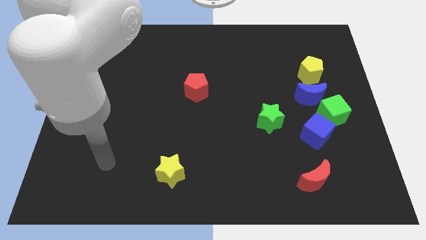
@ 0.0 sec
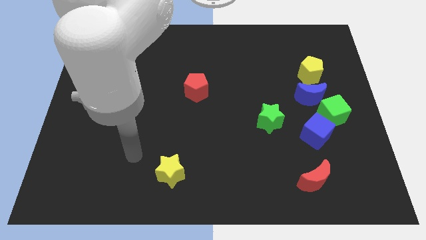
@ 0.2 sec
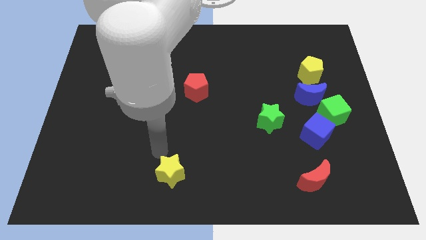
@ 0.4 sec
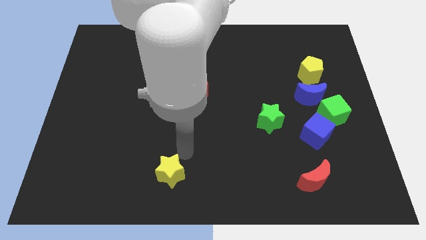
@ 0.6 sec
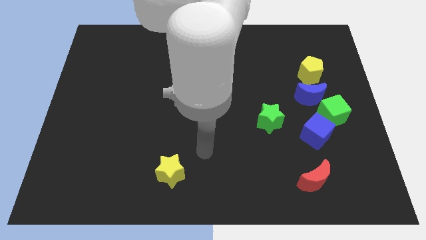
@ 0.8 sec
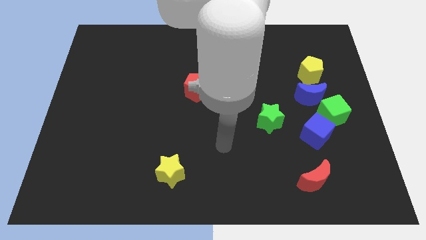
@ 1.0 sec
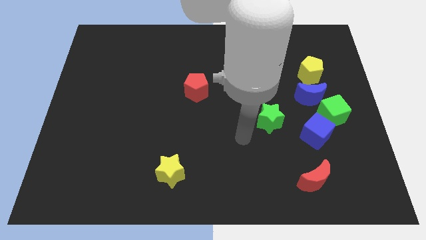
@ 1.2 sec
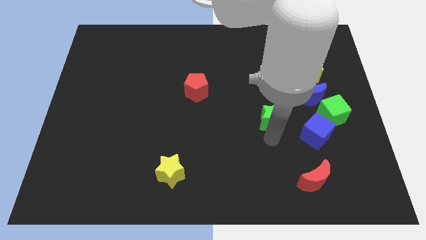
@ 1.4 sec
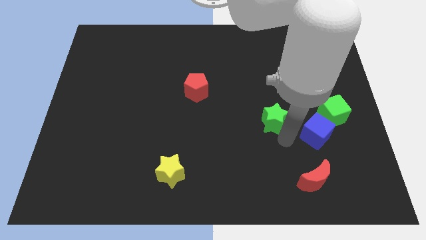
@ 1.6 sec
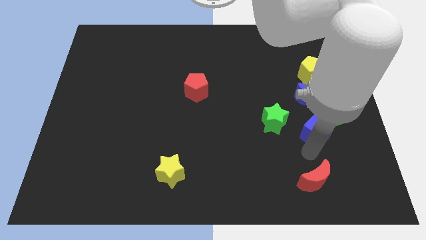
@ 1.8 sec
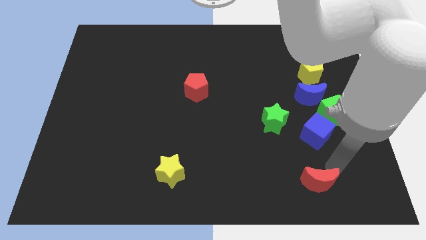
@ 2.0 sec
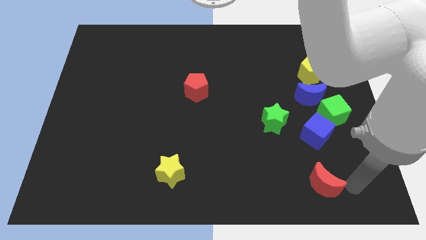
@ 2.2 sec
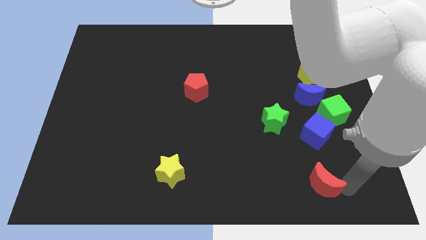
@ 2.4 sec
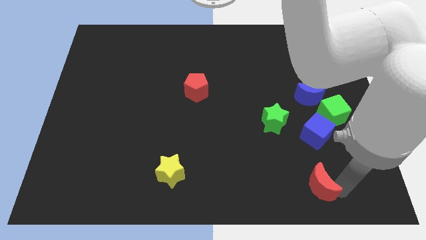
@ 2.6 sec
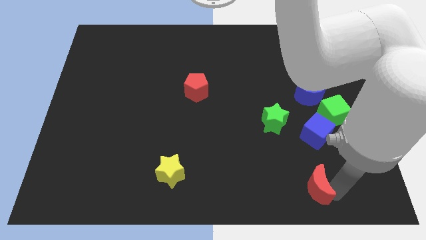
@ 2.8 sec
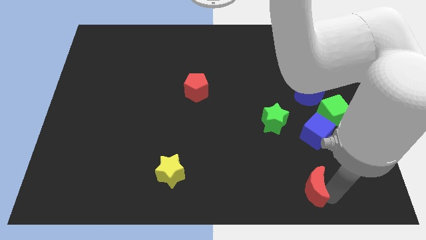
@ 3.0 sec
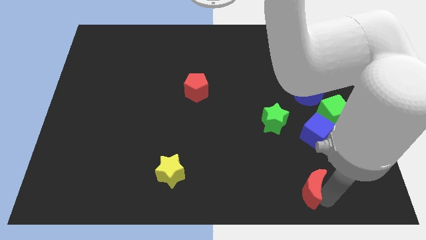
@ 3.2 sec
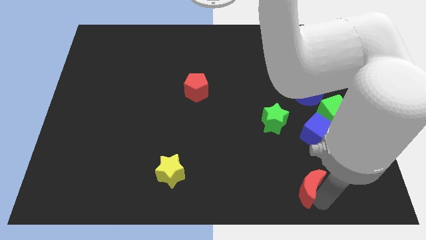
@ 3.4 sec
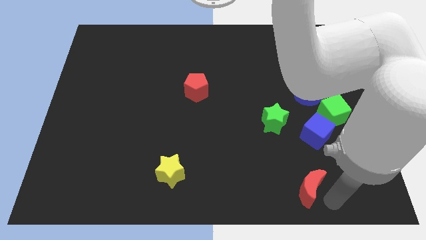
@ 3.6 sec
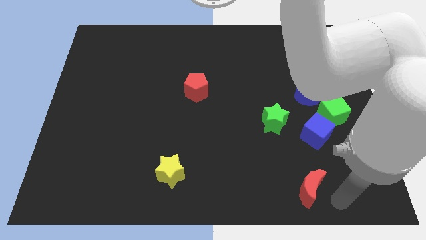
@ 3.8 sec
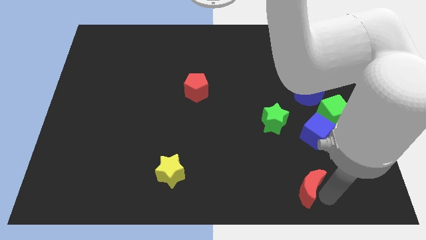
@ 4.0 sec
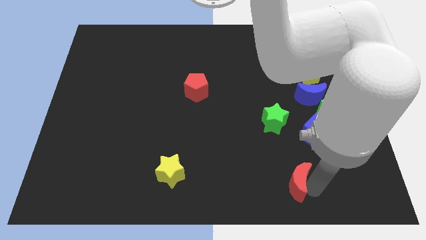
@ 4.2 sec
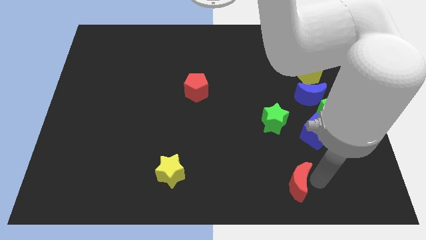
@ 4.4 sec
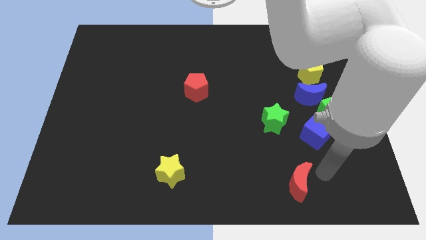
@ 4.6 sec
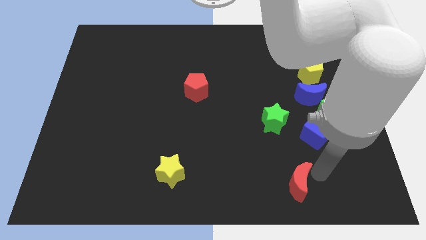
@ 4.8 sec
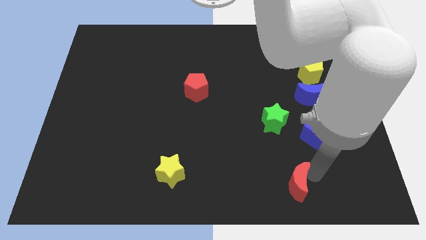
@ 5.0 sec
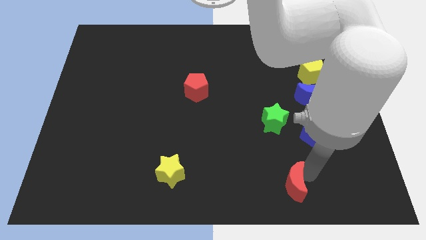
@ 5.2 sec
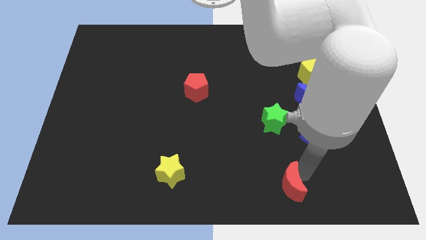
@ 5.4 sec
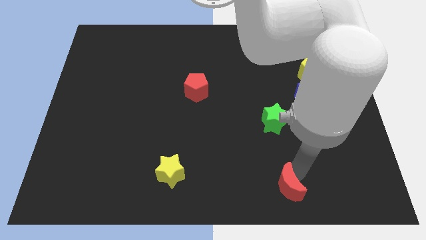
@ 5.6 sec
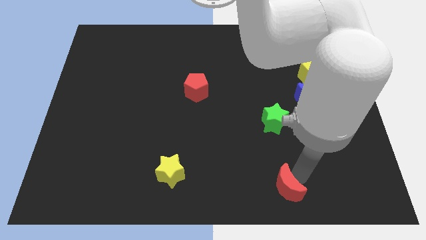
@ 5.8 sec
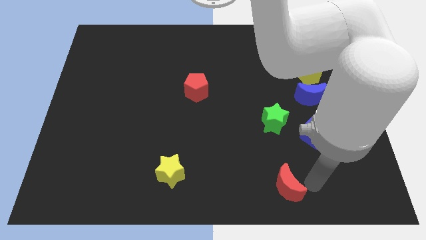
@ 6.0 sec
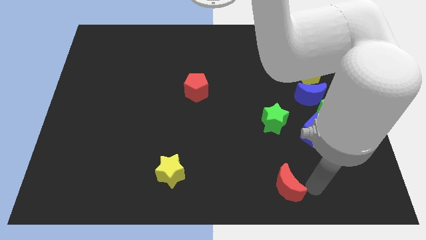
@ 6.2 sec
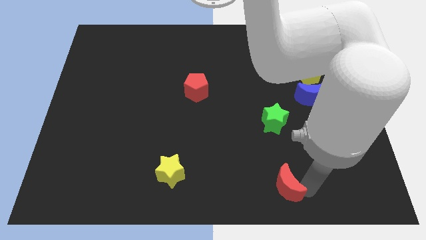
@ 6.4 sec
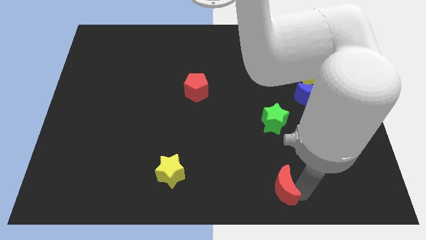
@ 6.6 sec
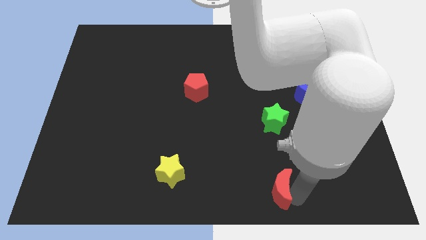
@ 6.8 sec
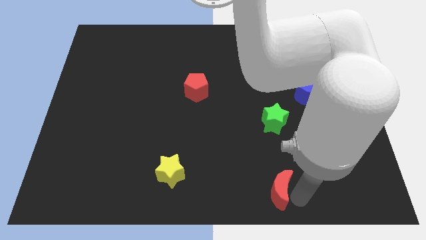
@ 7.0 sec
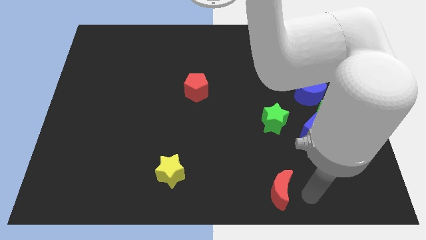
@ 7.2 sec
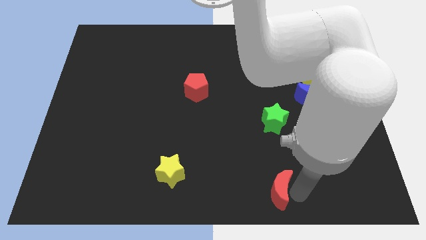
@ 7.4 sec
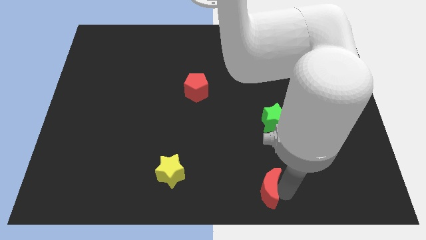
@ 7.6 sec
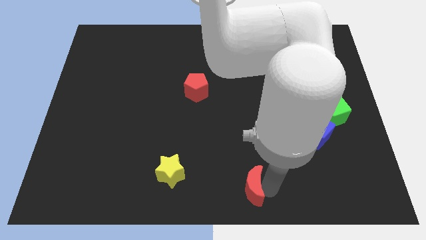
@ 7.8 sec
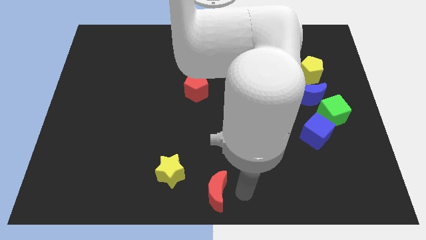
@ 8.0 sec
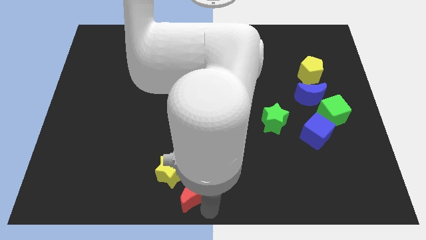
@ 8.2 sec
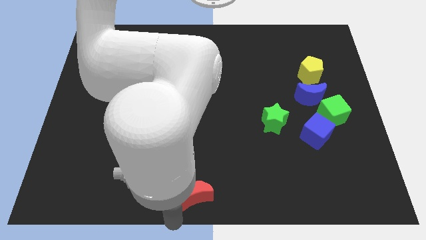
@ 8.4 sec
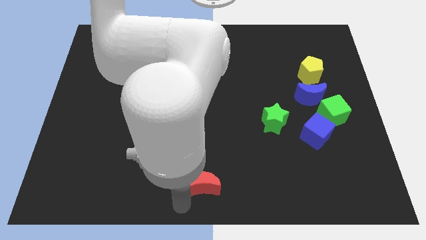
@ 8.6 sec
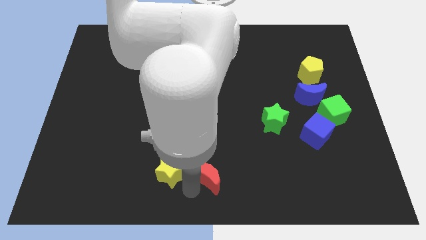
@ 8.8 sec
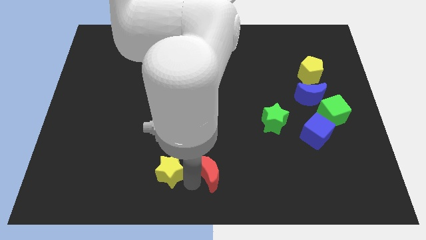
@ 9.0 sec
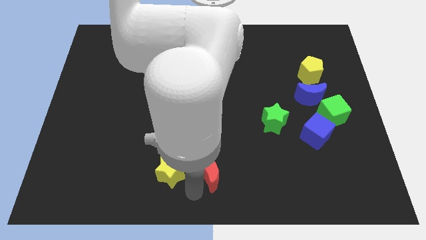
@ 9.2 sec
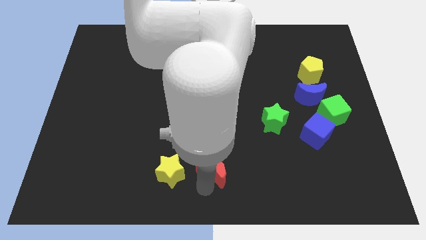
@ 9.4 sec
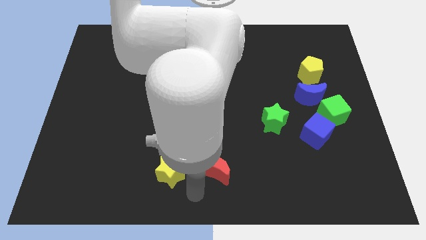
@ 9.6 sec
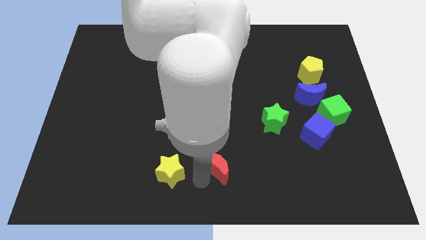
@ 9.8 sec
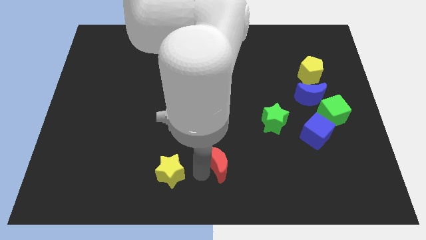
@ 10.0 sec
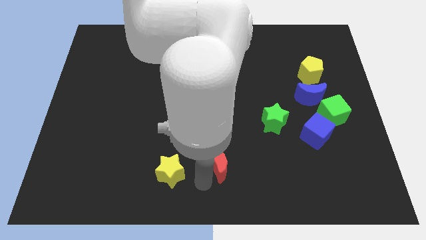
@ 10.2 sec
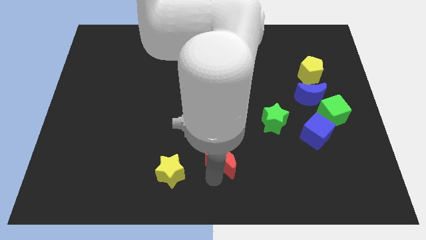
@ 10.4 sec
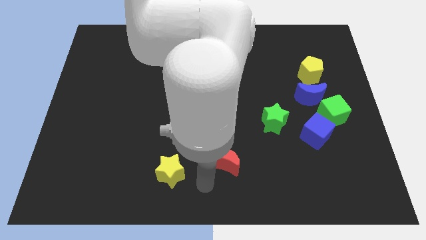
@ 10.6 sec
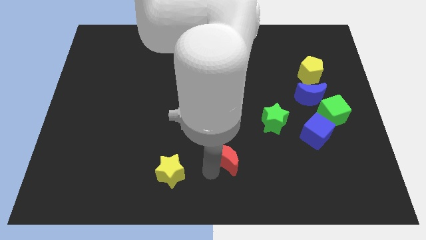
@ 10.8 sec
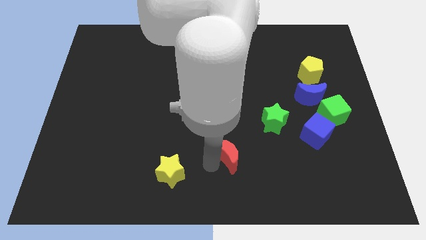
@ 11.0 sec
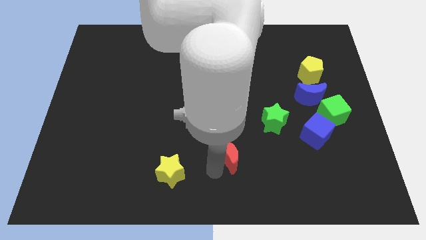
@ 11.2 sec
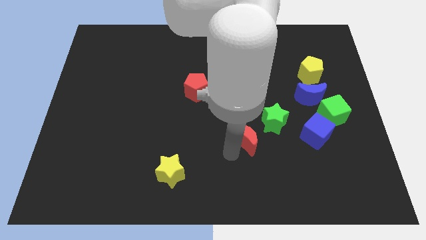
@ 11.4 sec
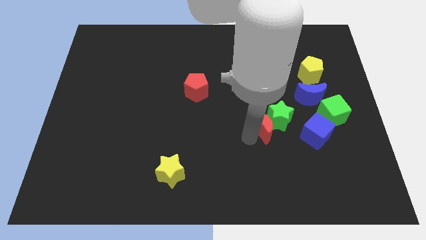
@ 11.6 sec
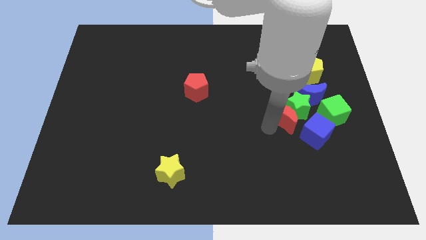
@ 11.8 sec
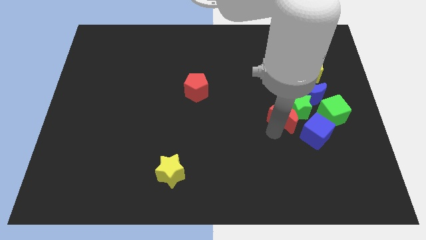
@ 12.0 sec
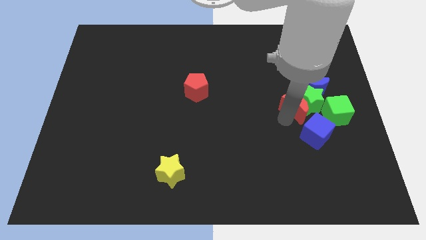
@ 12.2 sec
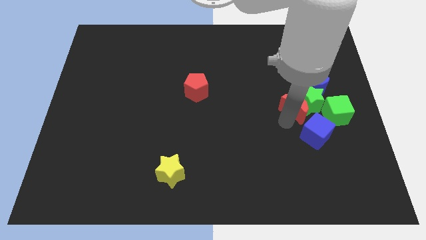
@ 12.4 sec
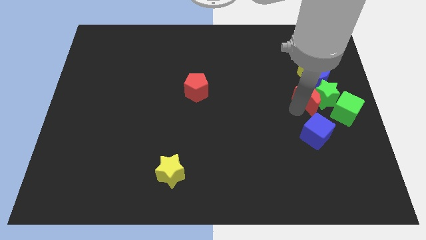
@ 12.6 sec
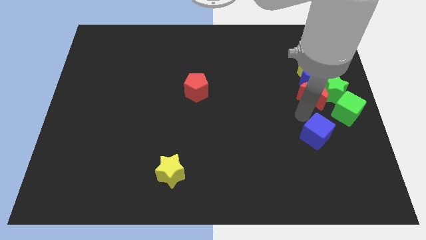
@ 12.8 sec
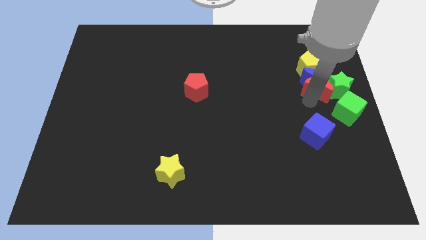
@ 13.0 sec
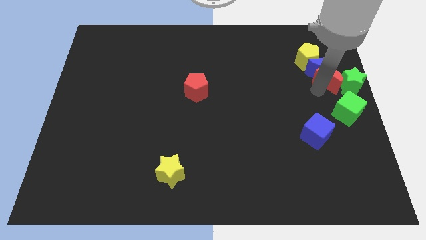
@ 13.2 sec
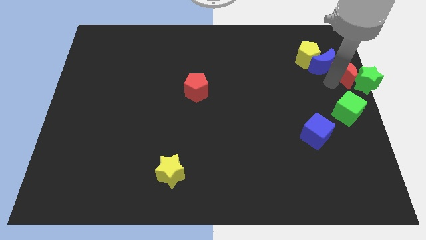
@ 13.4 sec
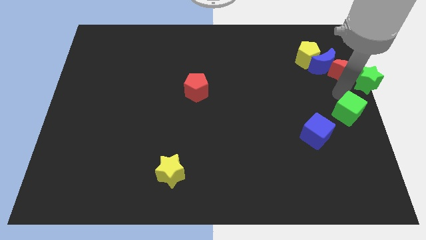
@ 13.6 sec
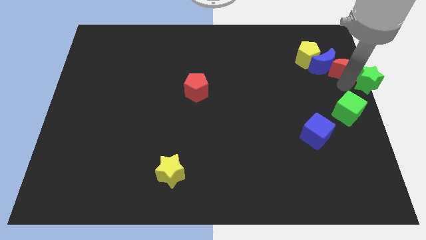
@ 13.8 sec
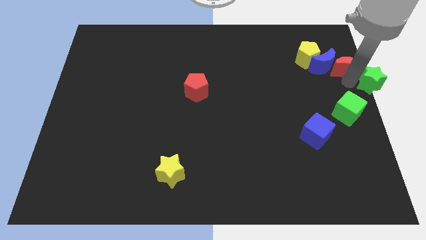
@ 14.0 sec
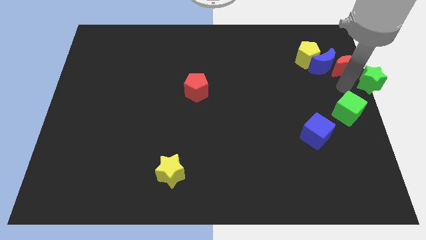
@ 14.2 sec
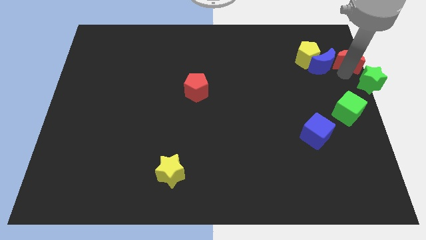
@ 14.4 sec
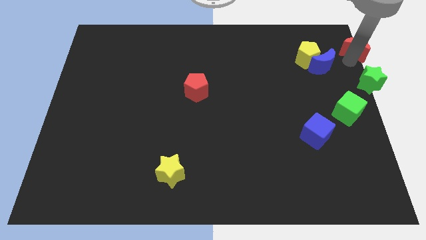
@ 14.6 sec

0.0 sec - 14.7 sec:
slide the red moon to the top right of the board
